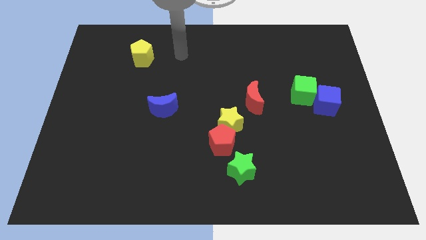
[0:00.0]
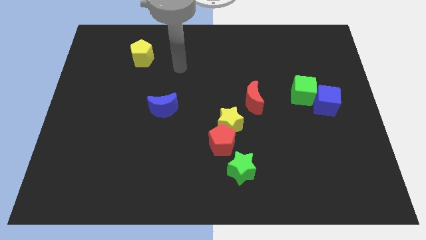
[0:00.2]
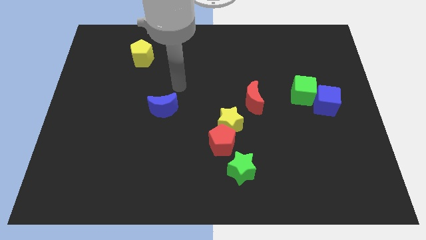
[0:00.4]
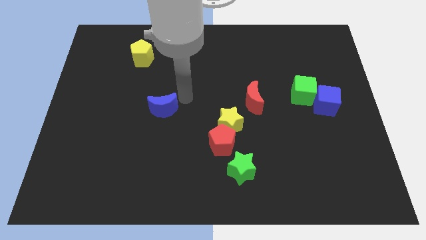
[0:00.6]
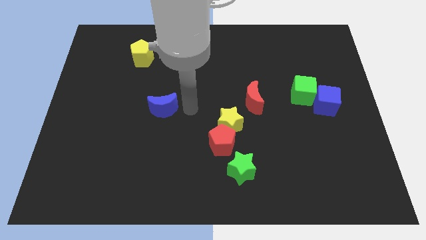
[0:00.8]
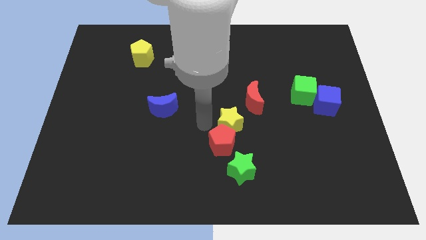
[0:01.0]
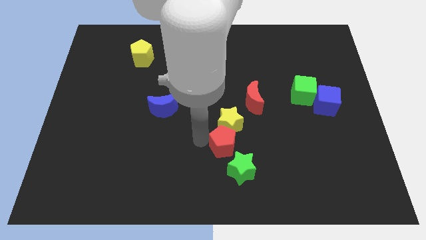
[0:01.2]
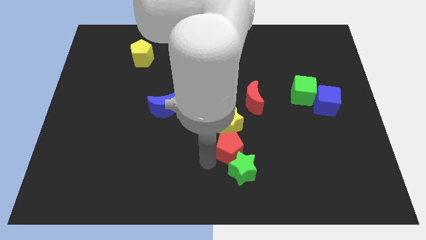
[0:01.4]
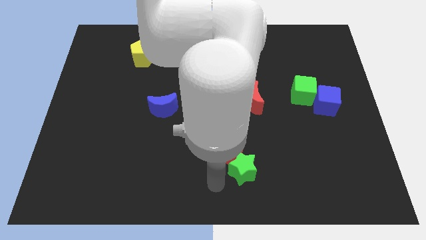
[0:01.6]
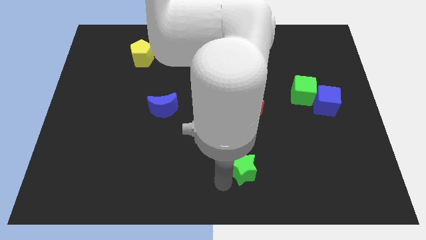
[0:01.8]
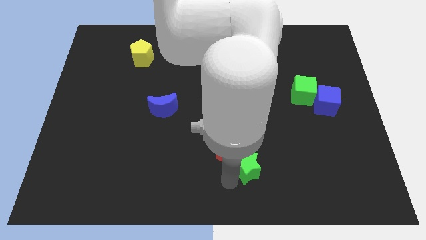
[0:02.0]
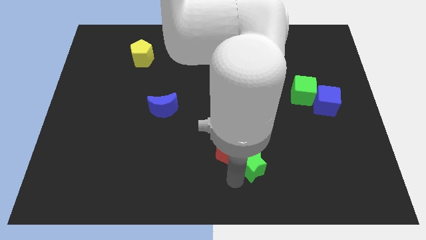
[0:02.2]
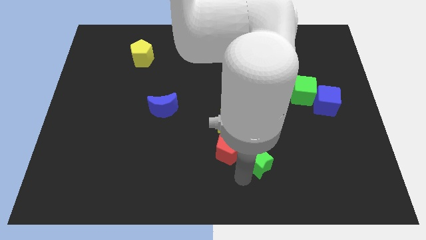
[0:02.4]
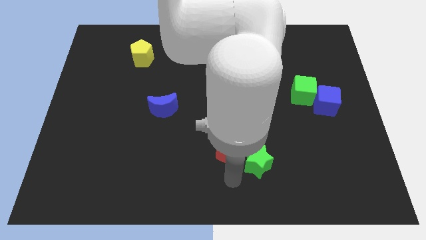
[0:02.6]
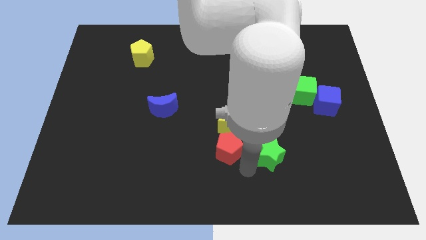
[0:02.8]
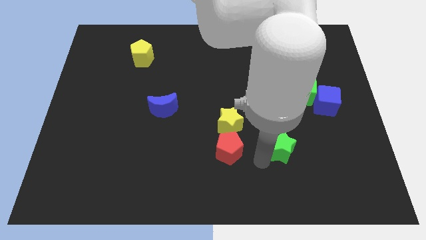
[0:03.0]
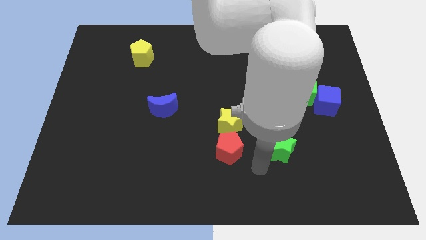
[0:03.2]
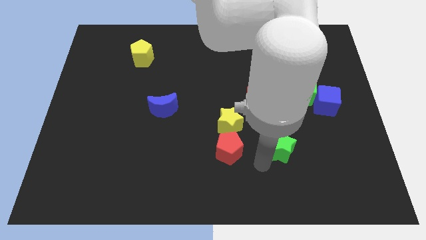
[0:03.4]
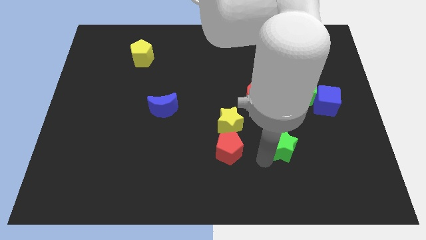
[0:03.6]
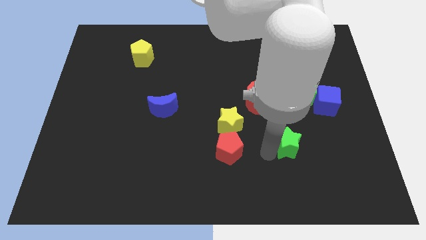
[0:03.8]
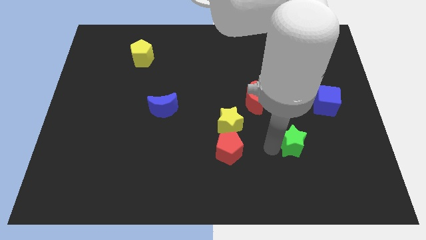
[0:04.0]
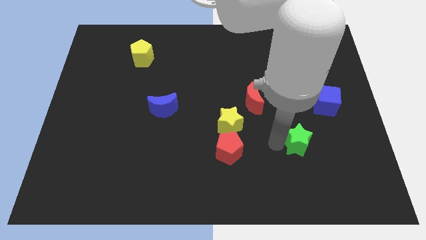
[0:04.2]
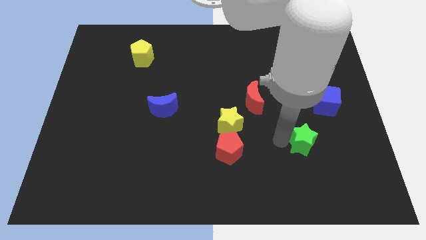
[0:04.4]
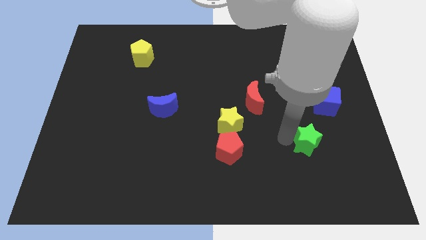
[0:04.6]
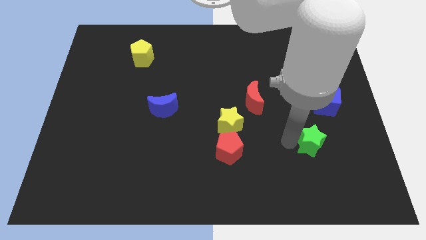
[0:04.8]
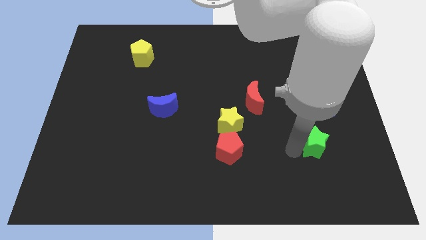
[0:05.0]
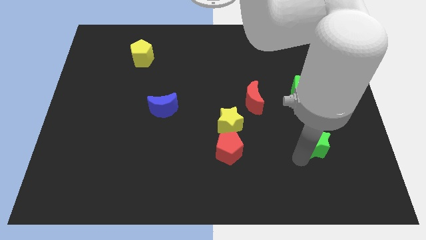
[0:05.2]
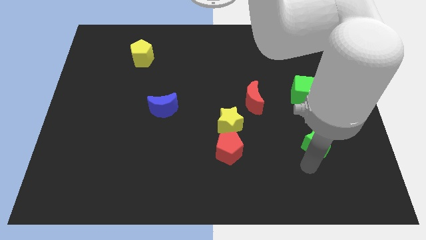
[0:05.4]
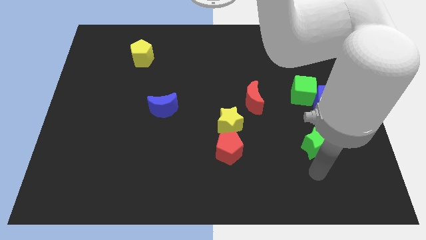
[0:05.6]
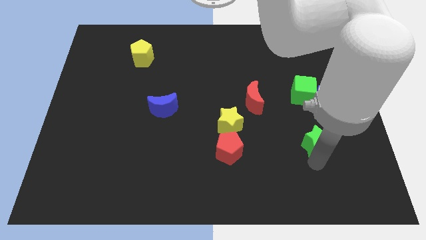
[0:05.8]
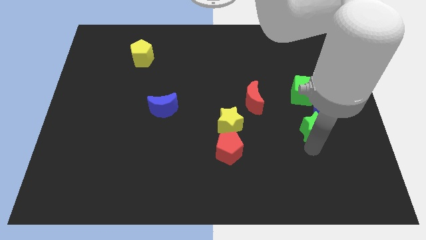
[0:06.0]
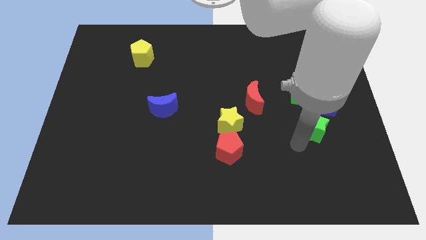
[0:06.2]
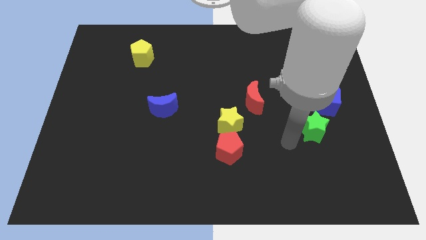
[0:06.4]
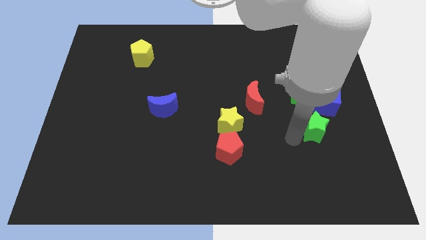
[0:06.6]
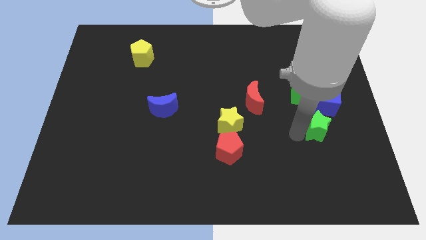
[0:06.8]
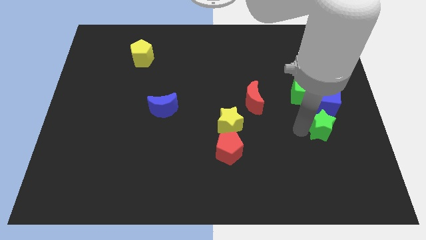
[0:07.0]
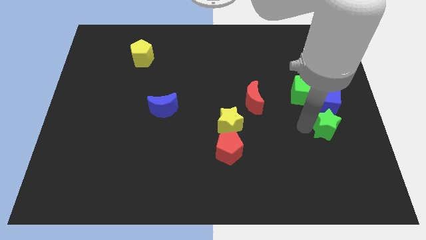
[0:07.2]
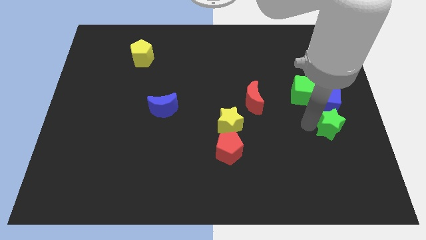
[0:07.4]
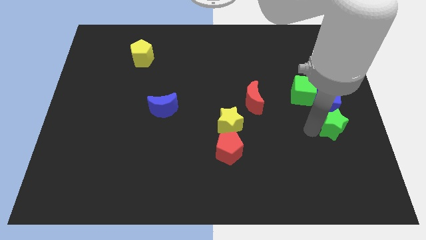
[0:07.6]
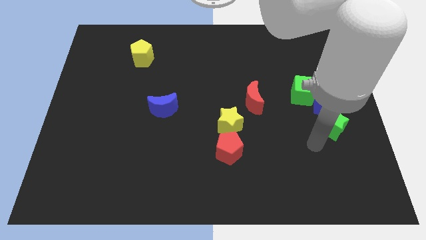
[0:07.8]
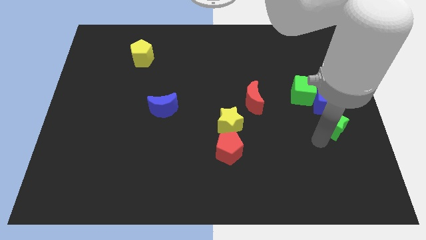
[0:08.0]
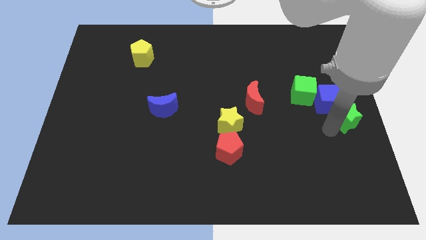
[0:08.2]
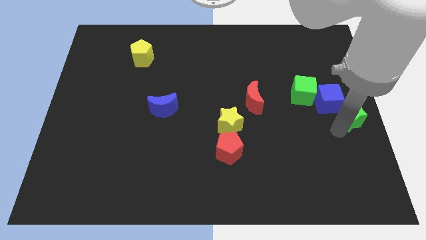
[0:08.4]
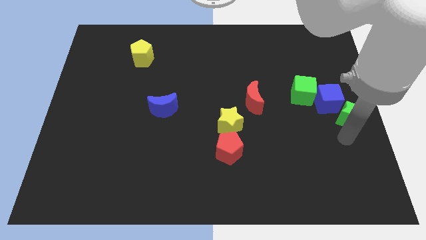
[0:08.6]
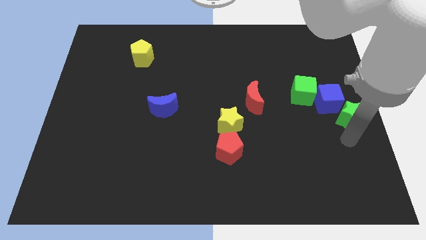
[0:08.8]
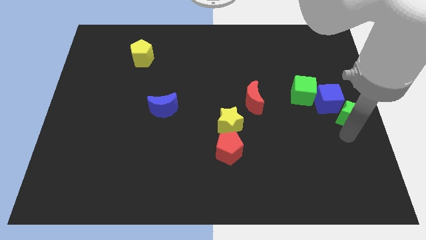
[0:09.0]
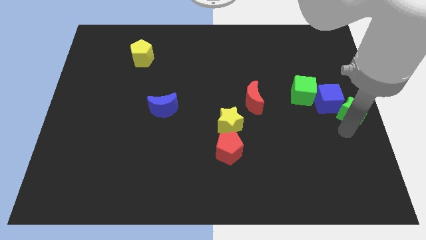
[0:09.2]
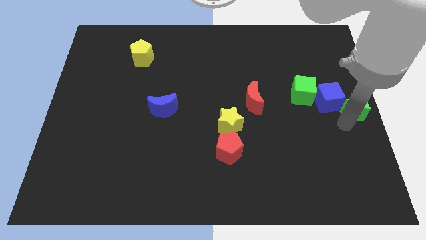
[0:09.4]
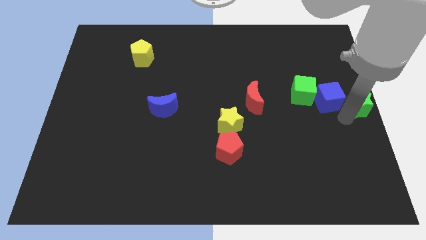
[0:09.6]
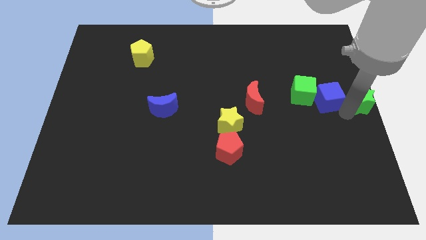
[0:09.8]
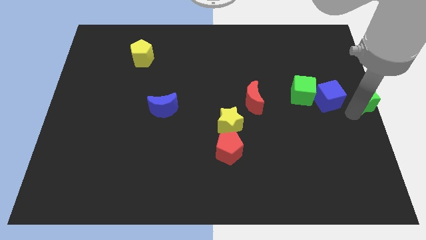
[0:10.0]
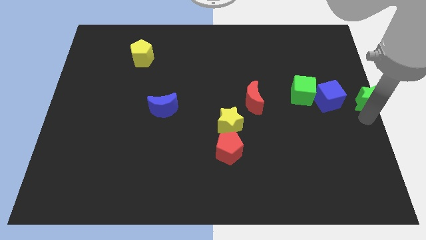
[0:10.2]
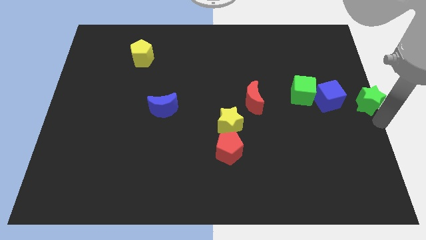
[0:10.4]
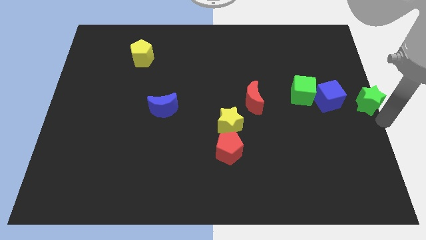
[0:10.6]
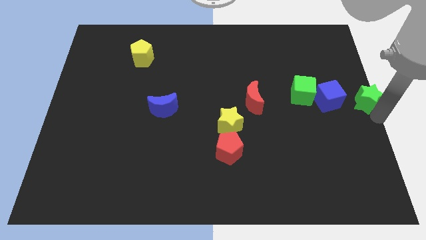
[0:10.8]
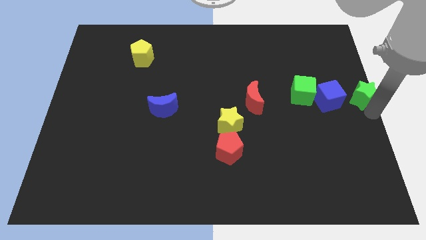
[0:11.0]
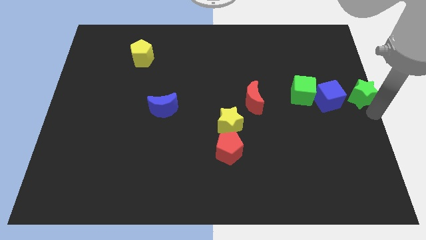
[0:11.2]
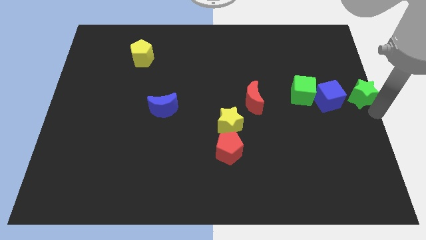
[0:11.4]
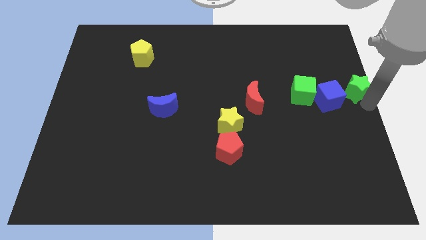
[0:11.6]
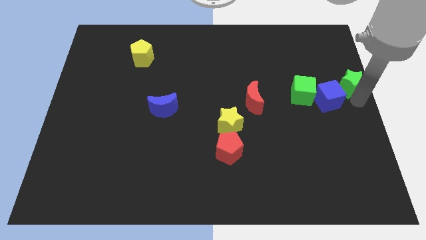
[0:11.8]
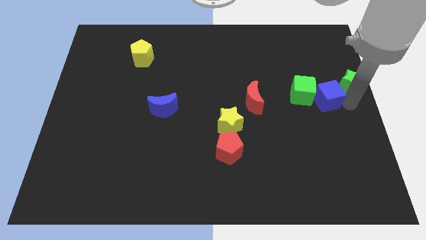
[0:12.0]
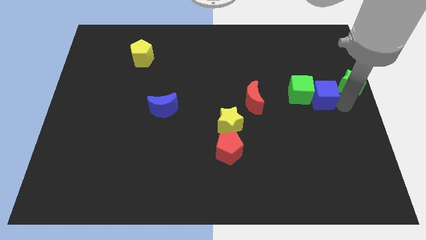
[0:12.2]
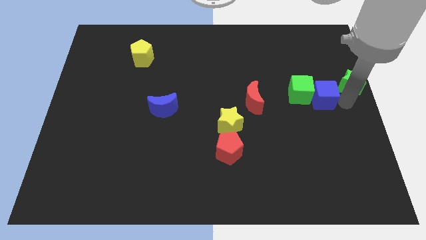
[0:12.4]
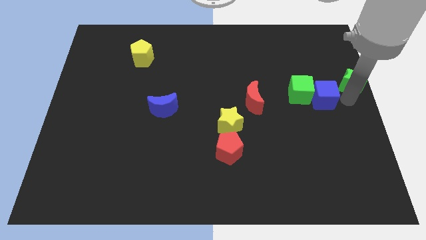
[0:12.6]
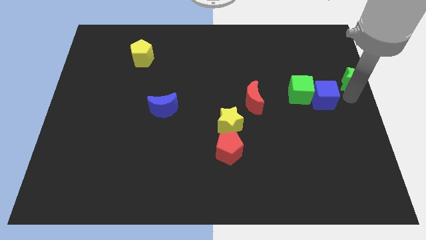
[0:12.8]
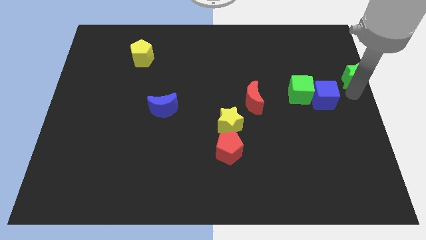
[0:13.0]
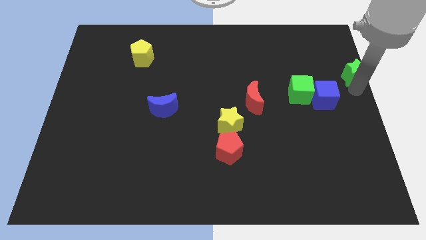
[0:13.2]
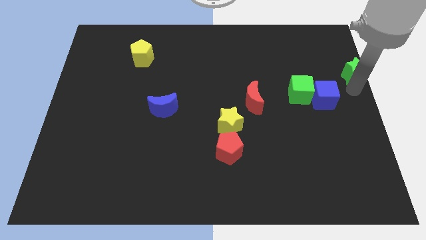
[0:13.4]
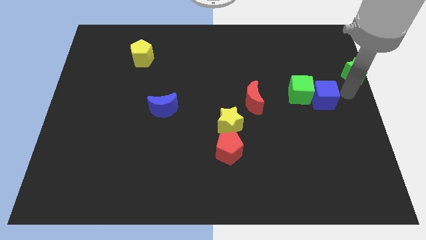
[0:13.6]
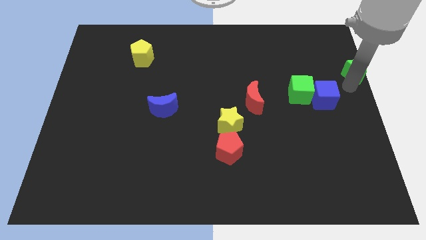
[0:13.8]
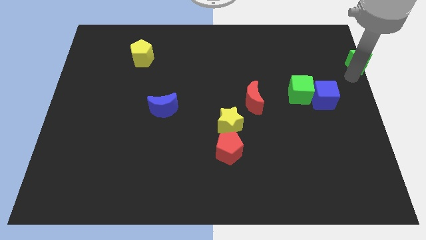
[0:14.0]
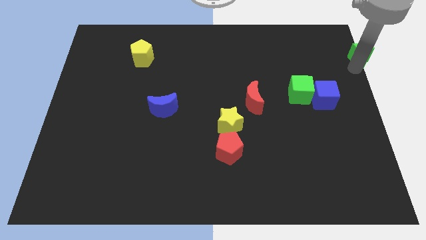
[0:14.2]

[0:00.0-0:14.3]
push the green star to the top right corner

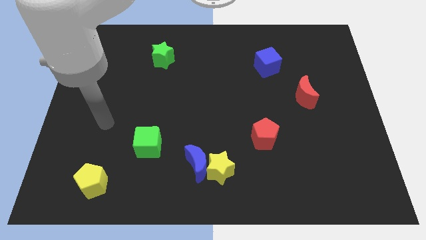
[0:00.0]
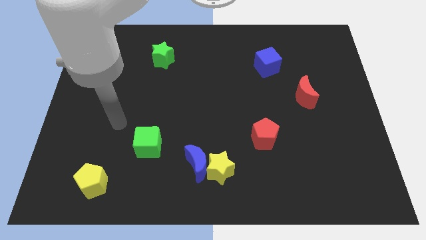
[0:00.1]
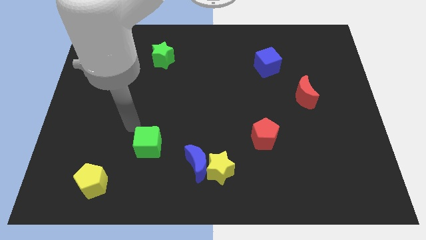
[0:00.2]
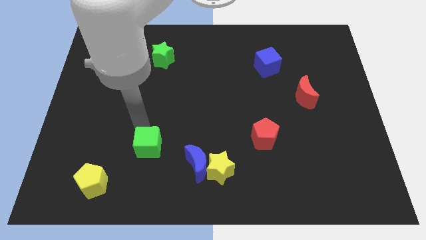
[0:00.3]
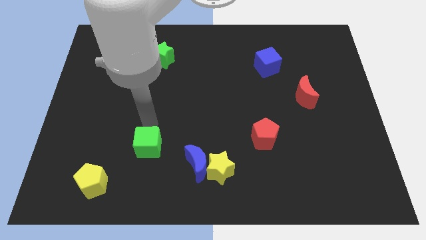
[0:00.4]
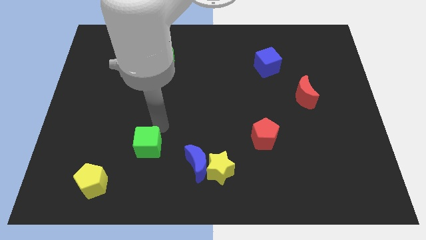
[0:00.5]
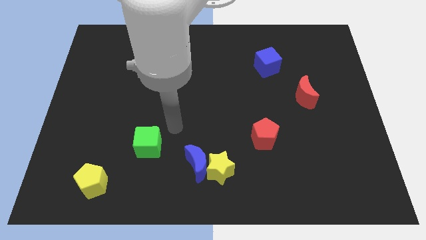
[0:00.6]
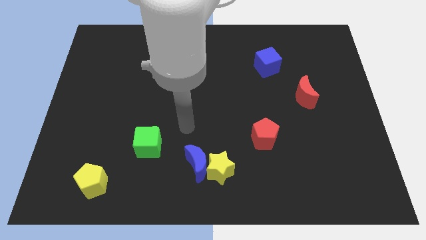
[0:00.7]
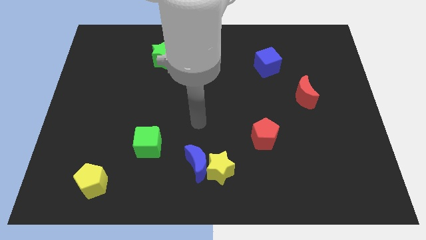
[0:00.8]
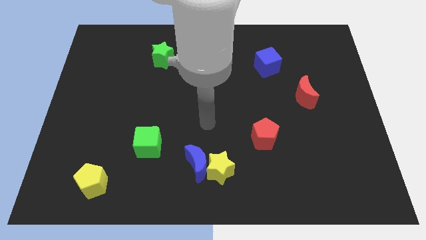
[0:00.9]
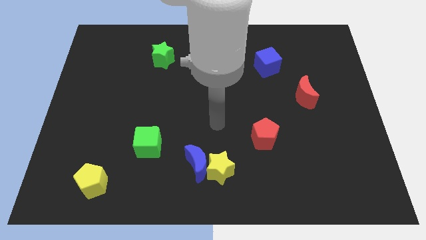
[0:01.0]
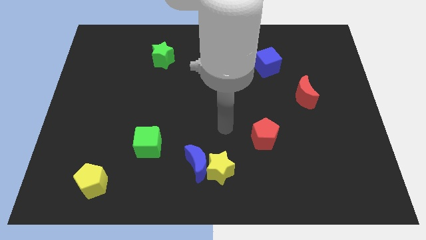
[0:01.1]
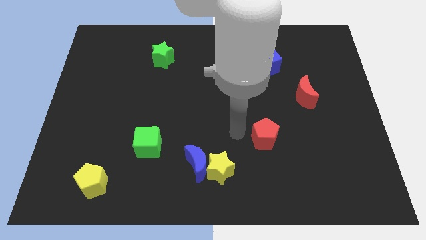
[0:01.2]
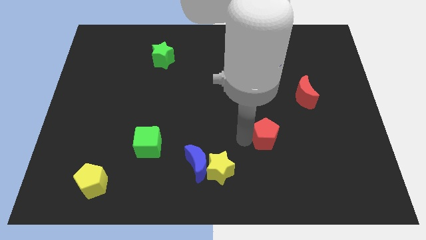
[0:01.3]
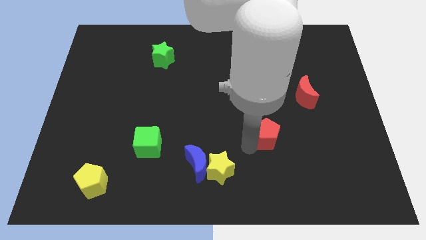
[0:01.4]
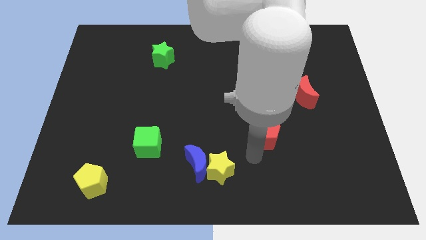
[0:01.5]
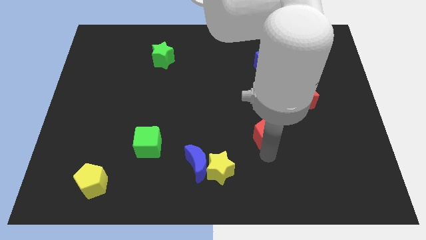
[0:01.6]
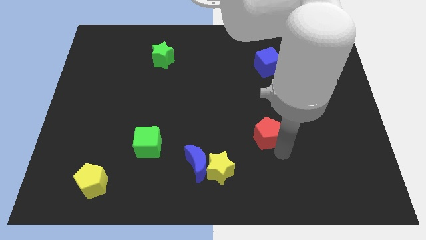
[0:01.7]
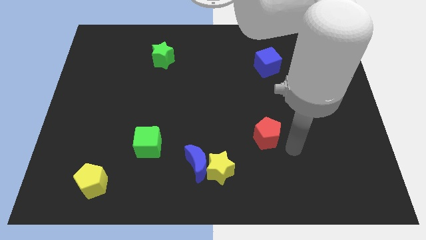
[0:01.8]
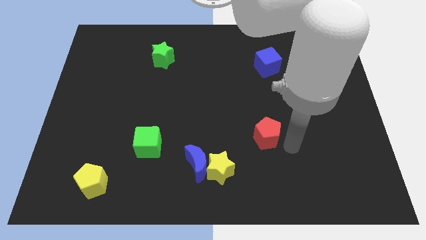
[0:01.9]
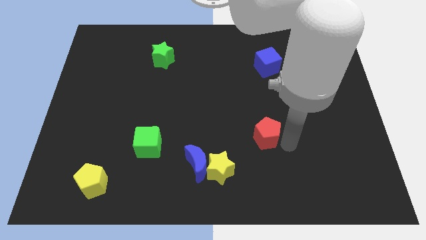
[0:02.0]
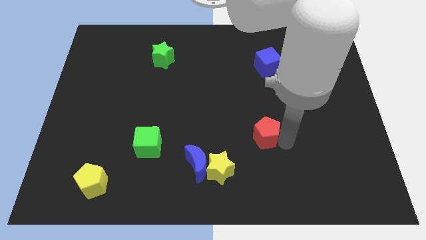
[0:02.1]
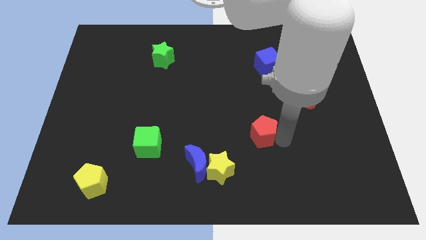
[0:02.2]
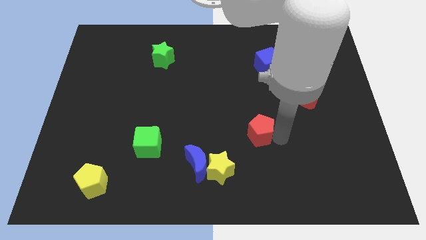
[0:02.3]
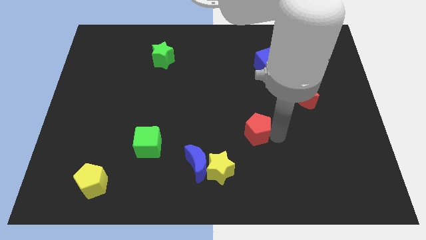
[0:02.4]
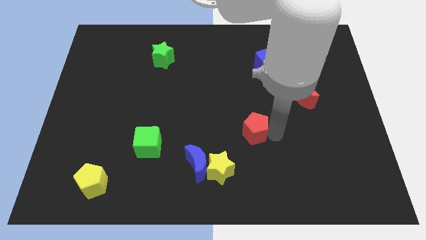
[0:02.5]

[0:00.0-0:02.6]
push the red pentagon to the middle
